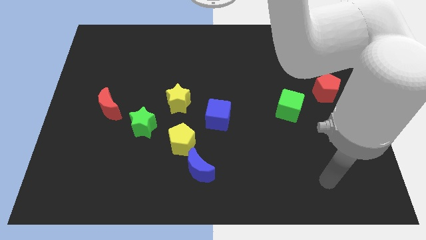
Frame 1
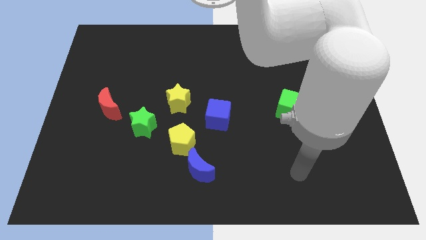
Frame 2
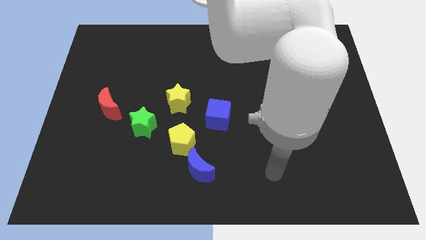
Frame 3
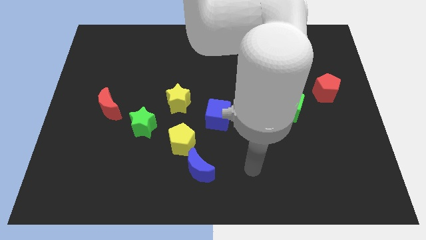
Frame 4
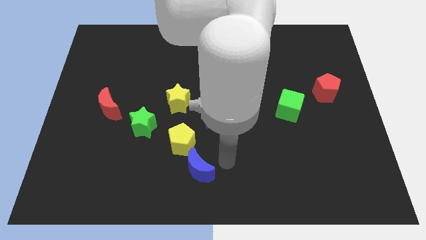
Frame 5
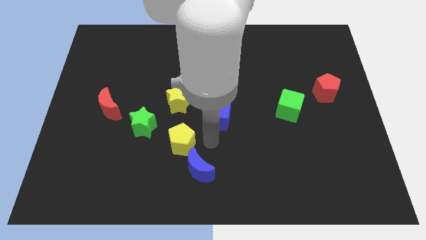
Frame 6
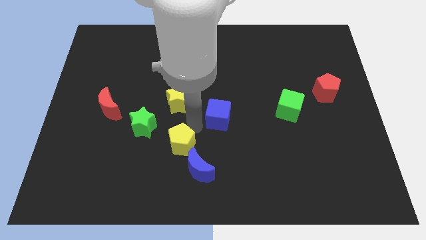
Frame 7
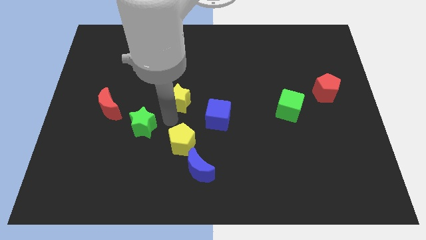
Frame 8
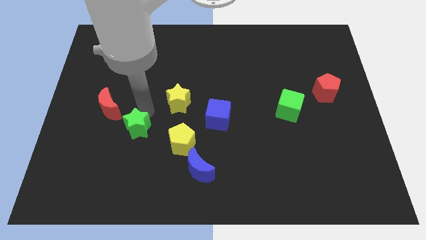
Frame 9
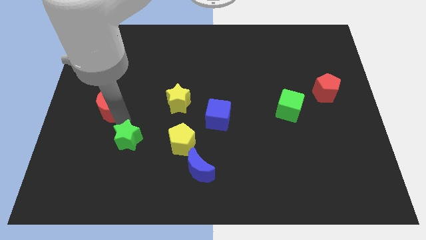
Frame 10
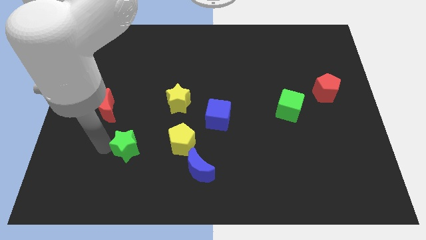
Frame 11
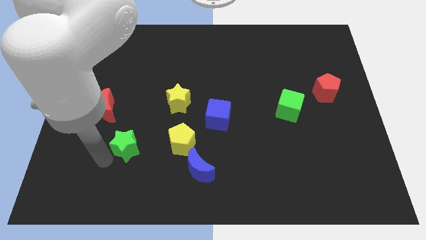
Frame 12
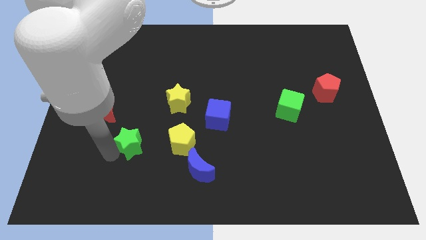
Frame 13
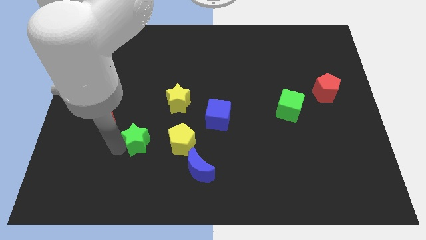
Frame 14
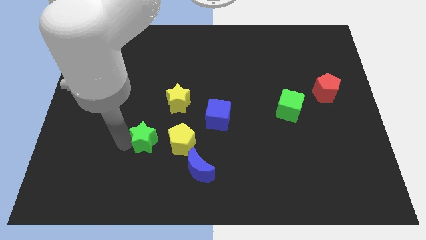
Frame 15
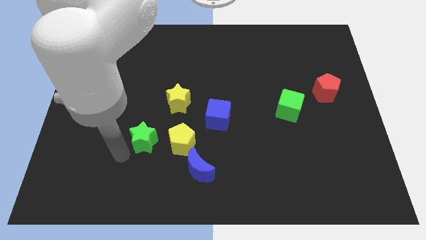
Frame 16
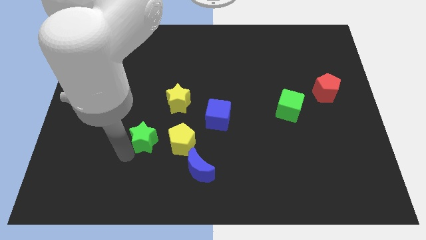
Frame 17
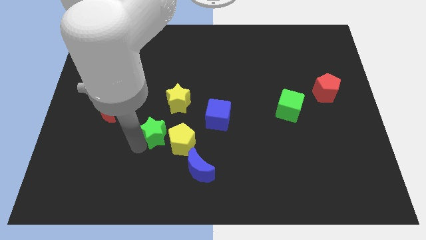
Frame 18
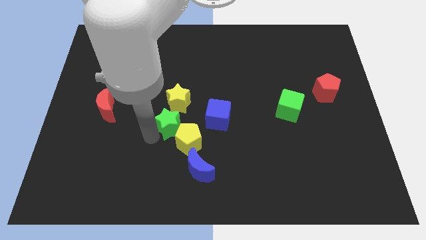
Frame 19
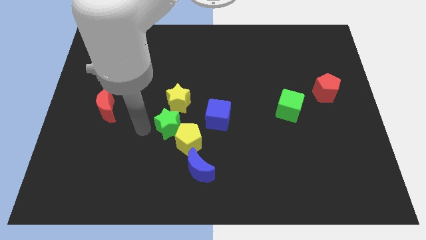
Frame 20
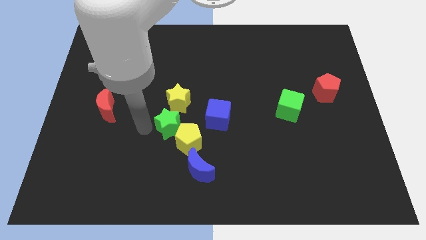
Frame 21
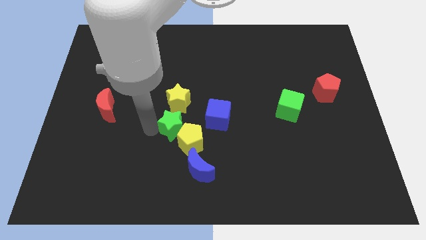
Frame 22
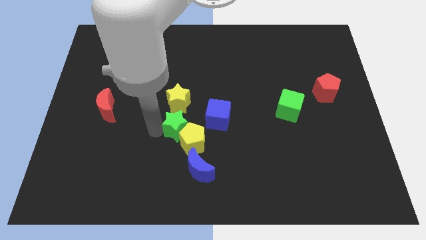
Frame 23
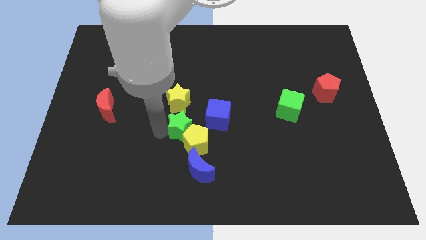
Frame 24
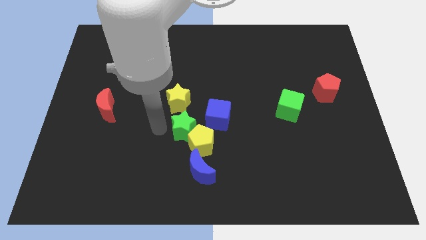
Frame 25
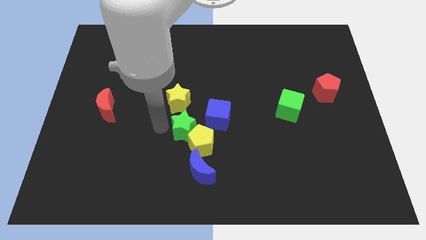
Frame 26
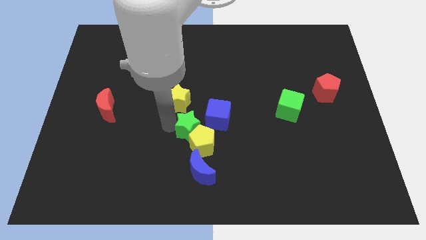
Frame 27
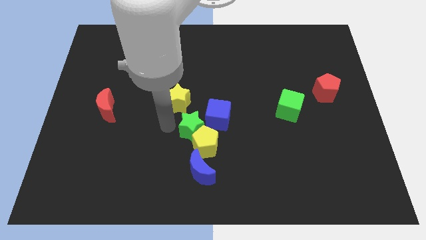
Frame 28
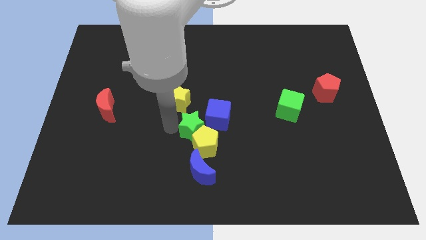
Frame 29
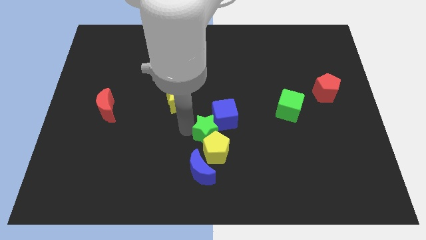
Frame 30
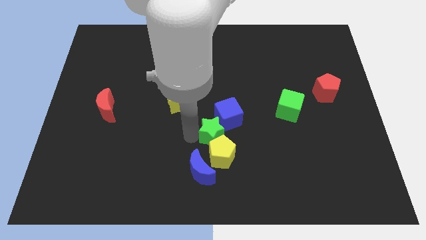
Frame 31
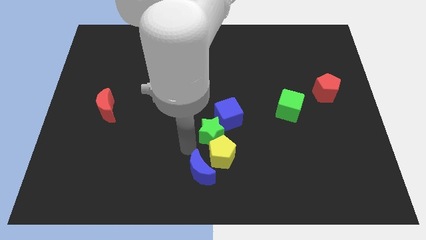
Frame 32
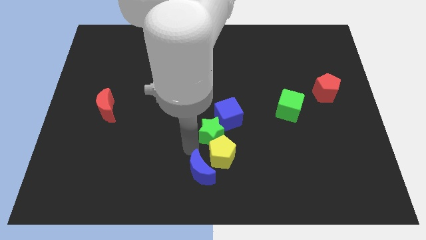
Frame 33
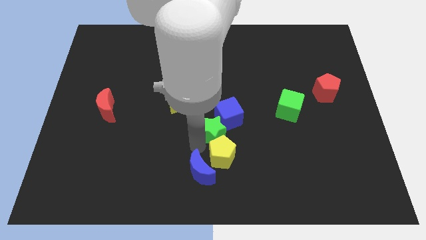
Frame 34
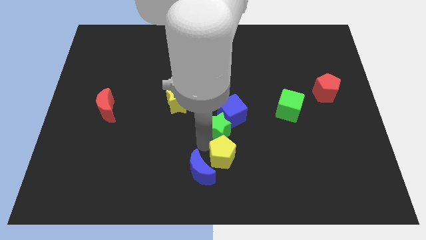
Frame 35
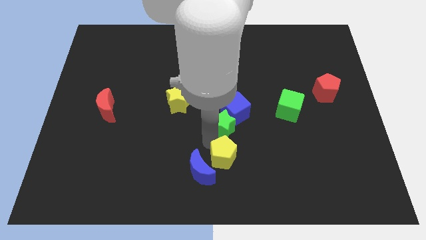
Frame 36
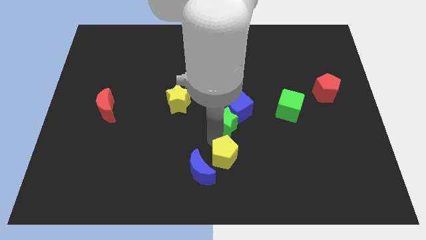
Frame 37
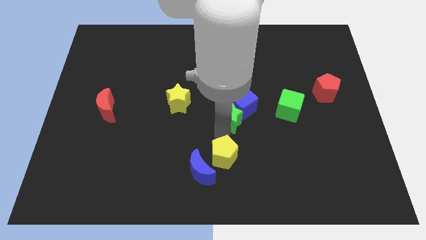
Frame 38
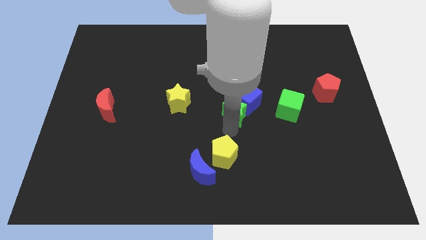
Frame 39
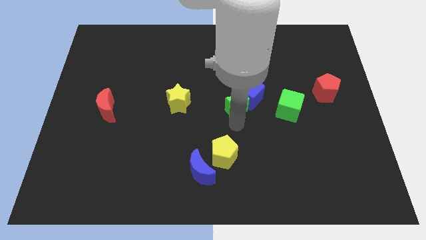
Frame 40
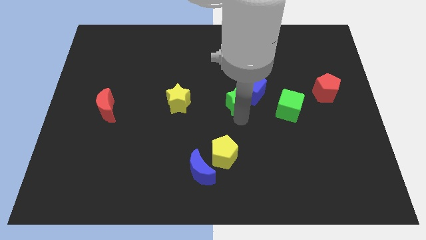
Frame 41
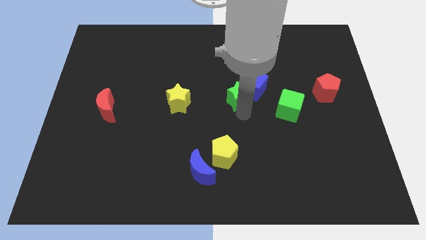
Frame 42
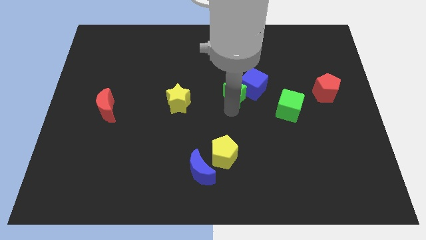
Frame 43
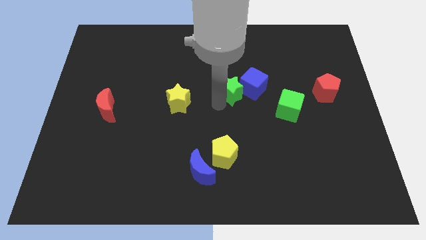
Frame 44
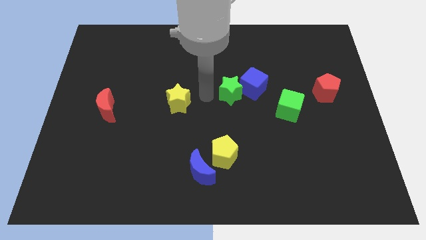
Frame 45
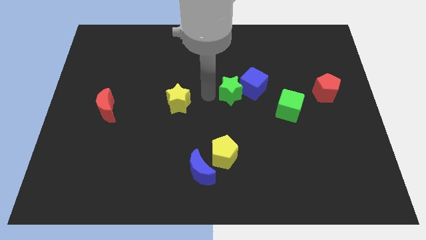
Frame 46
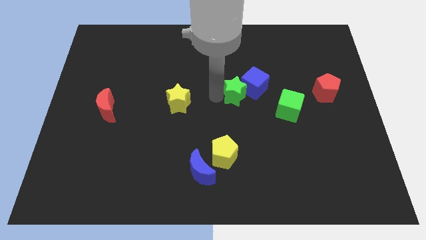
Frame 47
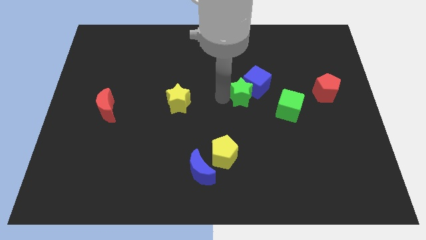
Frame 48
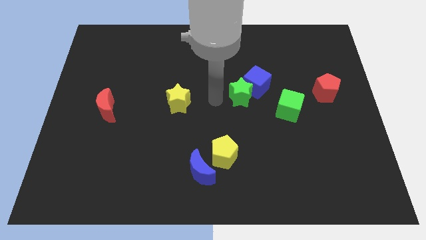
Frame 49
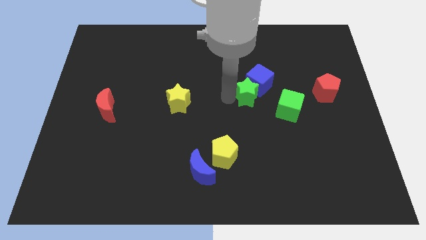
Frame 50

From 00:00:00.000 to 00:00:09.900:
put the green star to the top left of the green cube

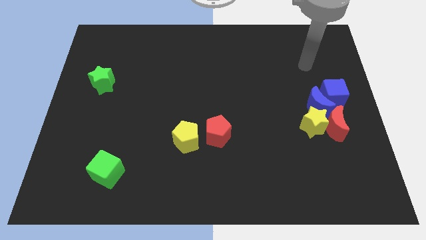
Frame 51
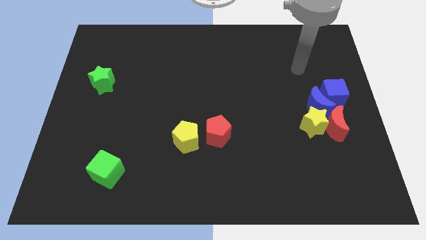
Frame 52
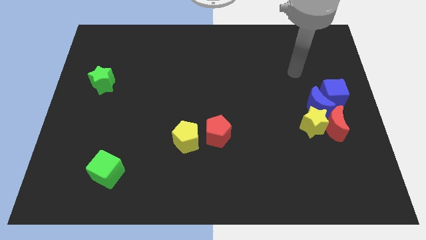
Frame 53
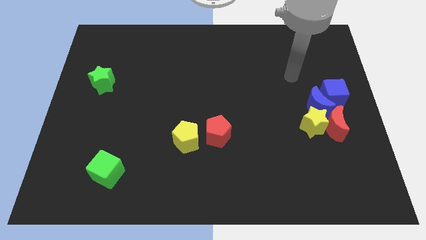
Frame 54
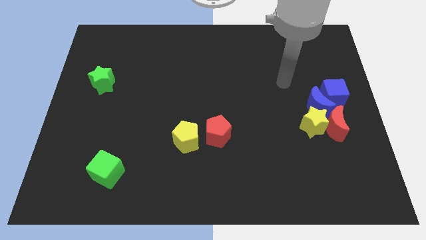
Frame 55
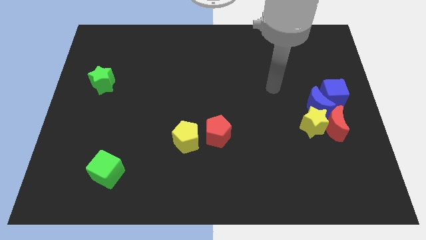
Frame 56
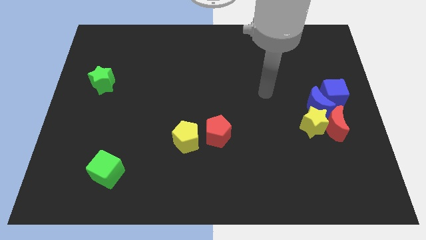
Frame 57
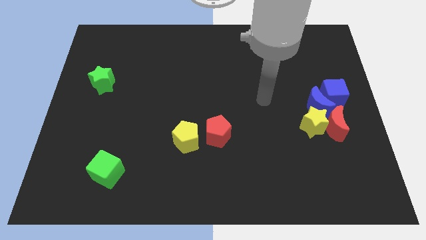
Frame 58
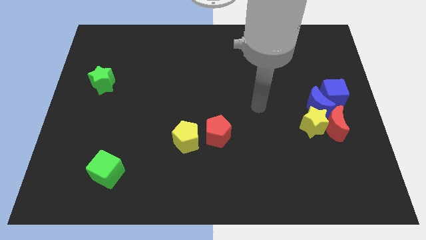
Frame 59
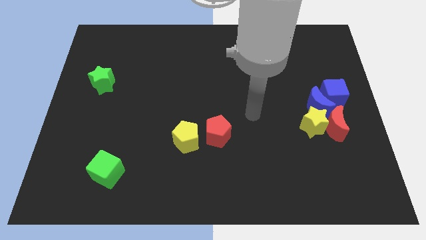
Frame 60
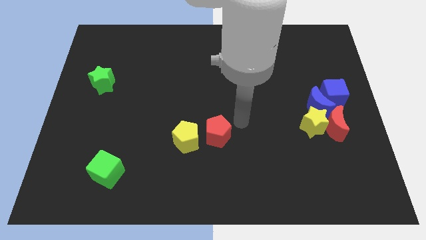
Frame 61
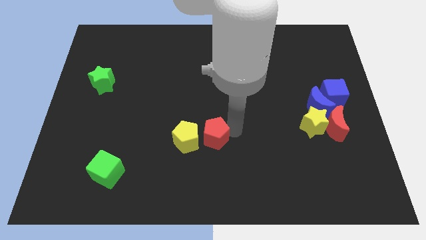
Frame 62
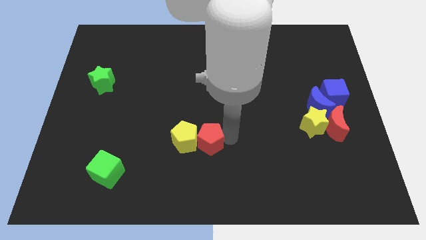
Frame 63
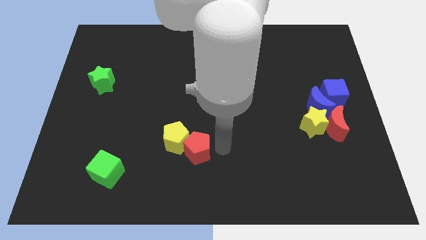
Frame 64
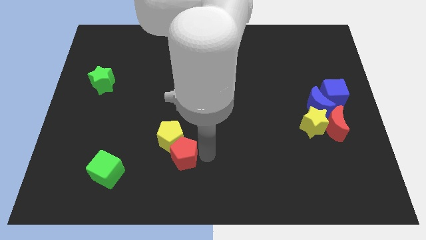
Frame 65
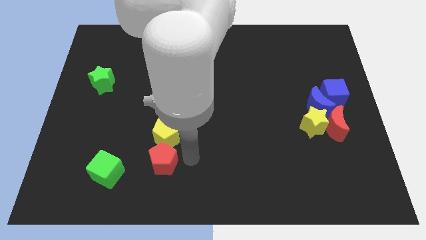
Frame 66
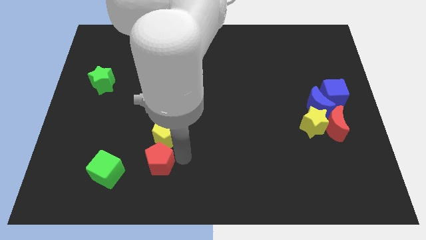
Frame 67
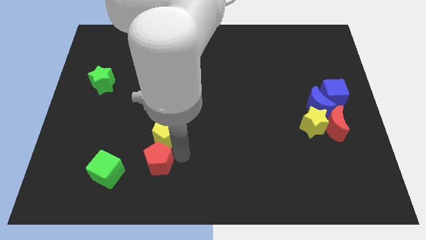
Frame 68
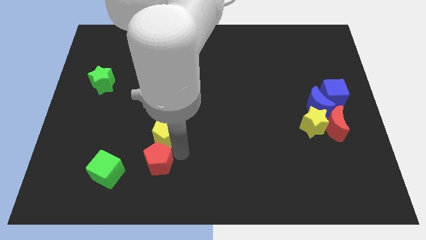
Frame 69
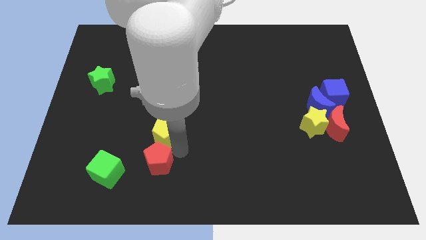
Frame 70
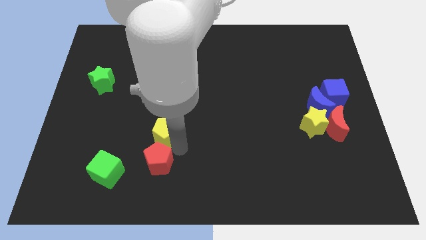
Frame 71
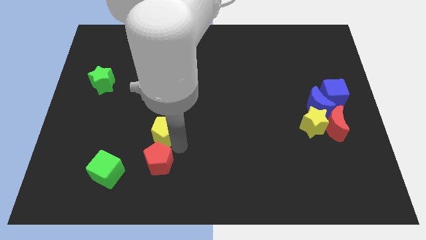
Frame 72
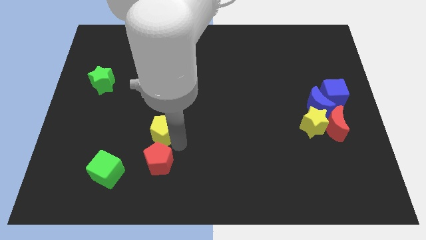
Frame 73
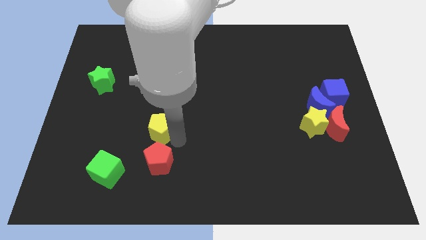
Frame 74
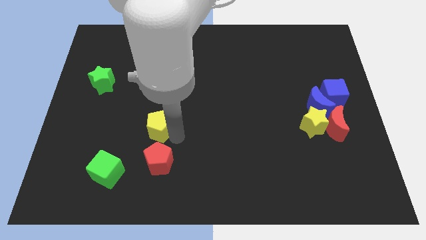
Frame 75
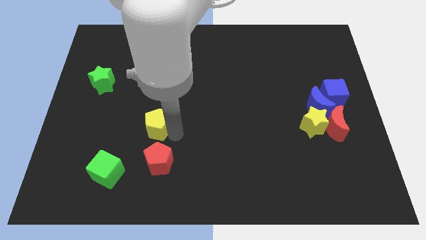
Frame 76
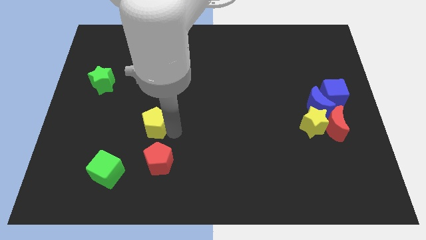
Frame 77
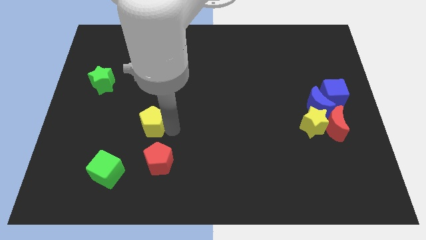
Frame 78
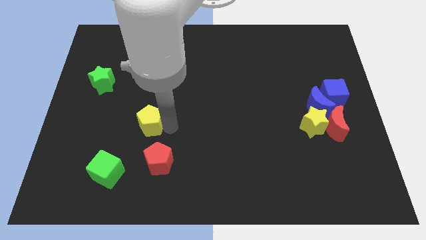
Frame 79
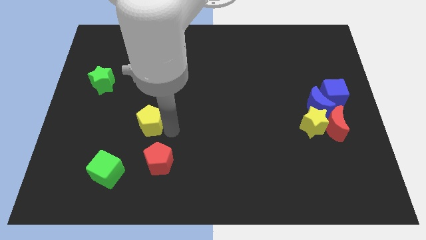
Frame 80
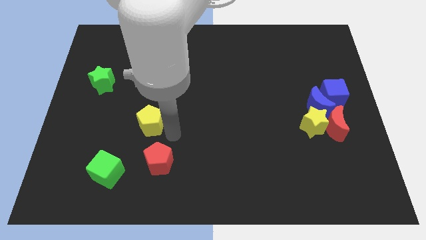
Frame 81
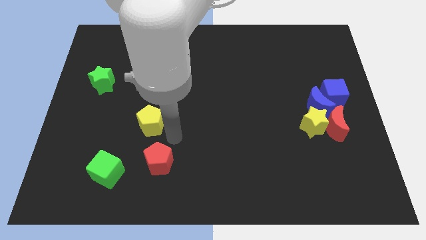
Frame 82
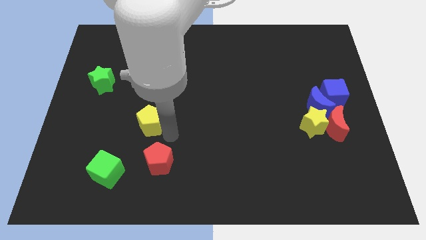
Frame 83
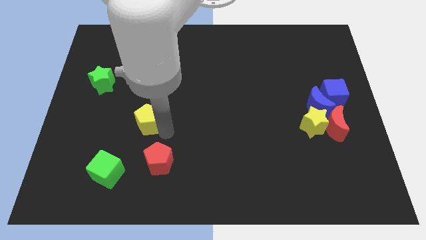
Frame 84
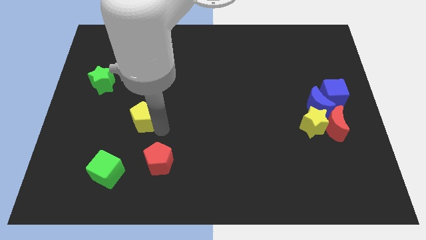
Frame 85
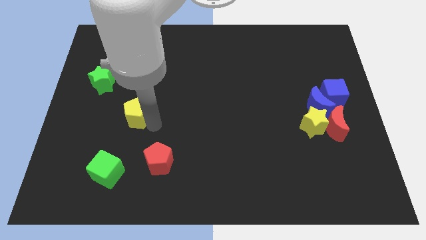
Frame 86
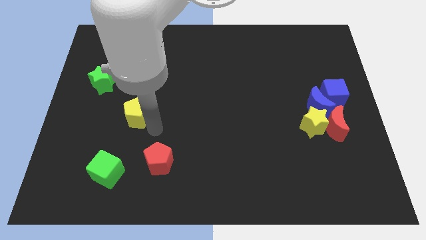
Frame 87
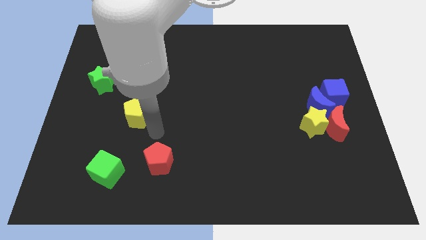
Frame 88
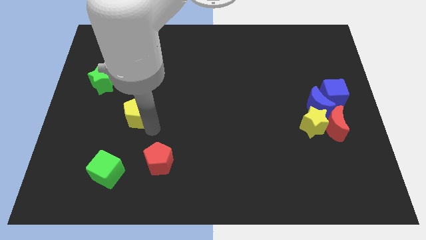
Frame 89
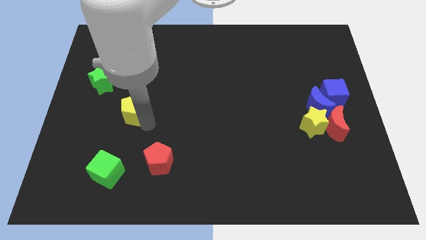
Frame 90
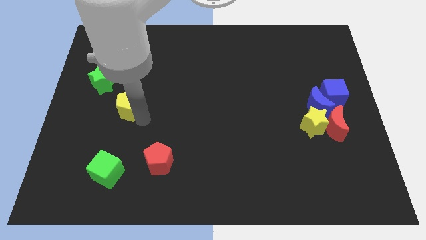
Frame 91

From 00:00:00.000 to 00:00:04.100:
move the yellow pentagon to the bottom right of the green star
